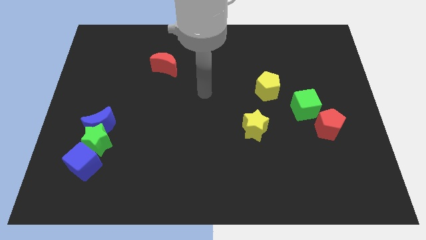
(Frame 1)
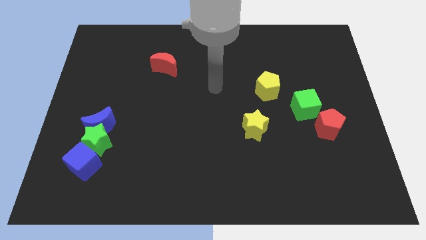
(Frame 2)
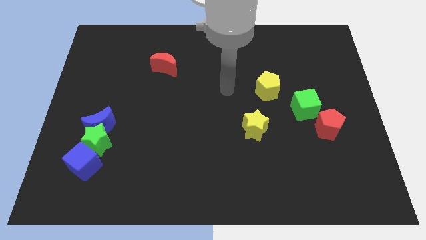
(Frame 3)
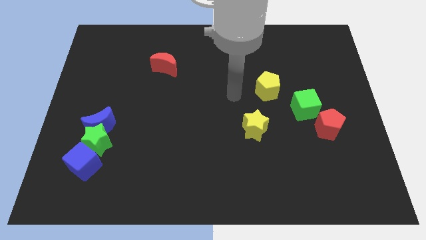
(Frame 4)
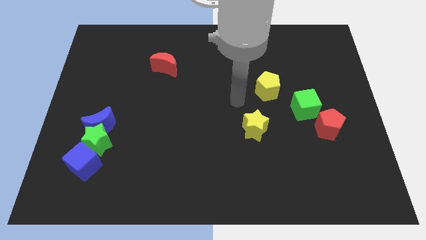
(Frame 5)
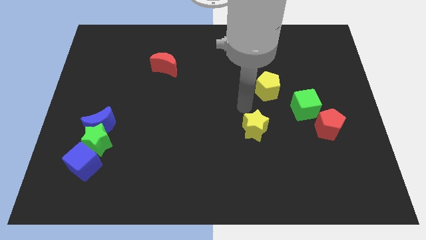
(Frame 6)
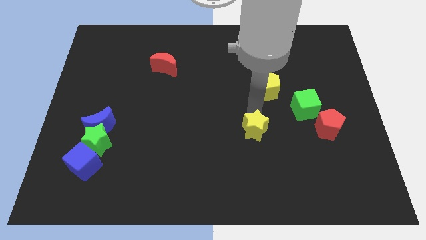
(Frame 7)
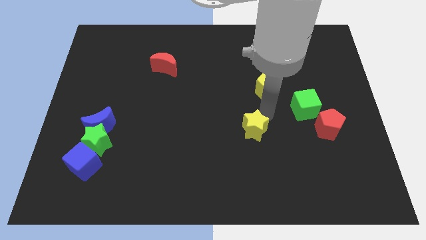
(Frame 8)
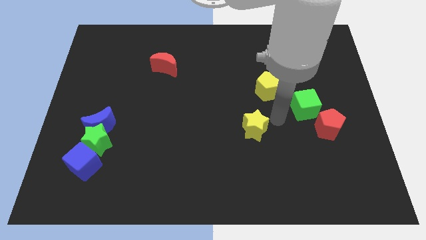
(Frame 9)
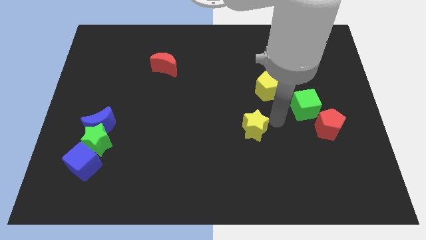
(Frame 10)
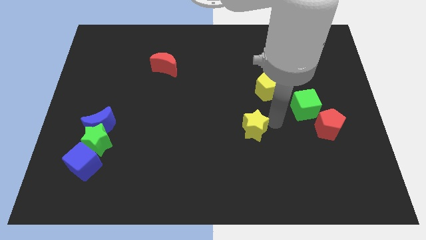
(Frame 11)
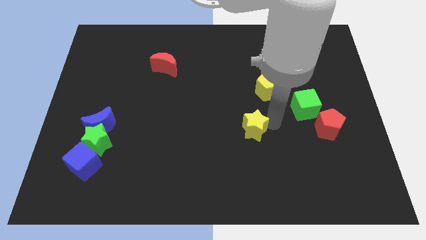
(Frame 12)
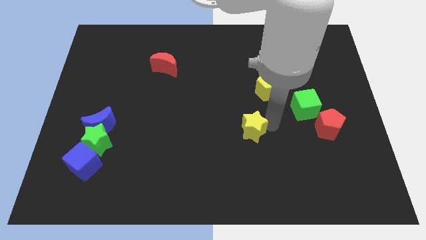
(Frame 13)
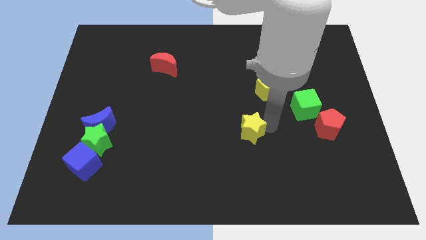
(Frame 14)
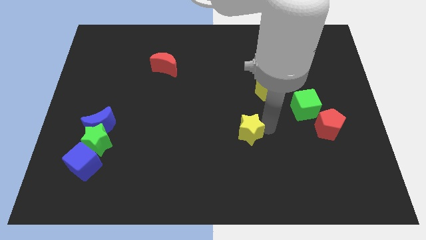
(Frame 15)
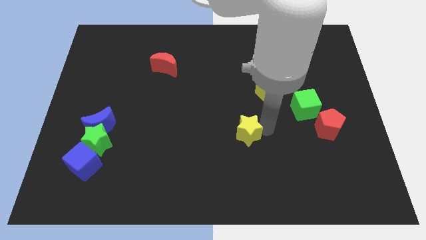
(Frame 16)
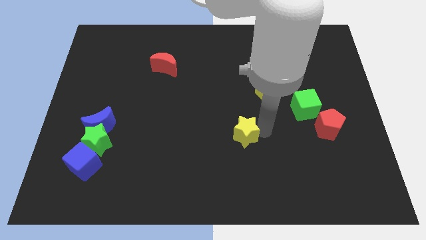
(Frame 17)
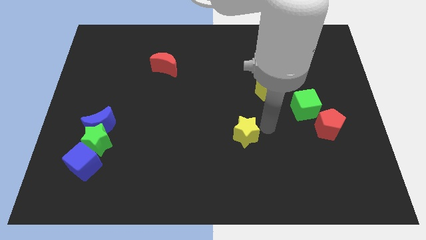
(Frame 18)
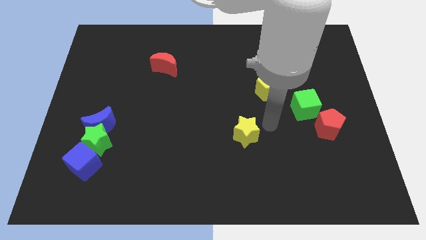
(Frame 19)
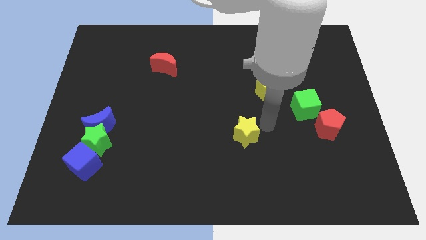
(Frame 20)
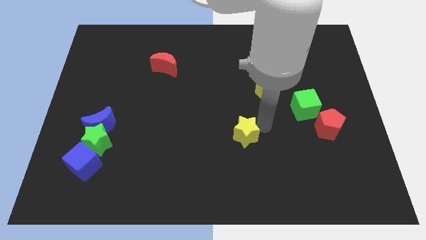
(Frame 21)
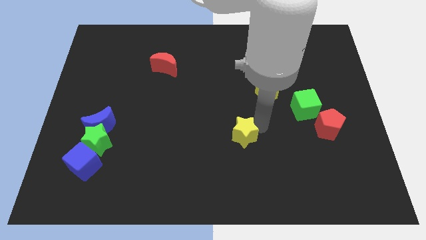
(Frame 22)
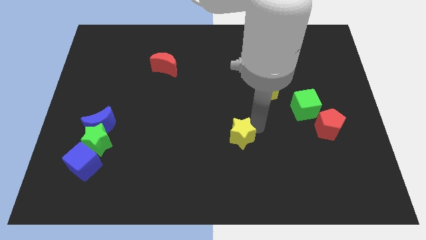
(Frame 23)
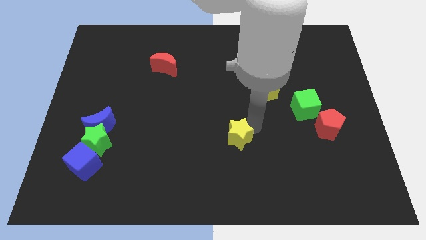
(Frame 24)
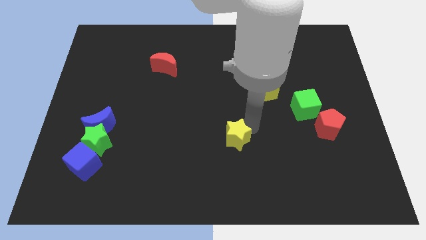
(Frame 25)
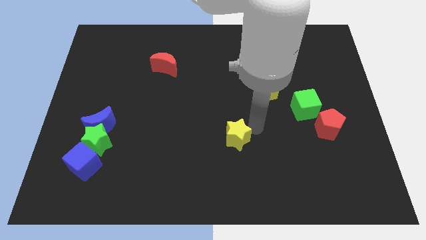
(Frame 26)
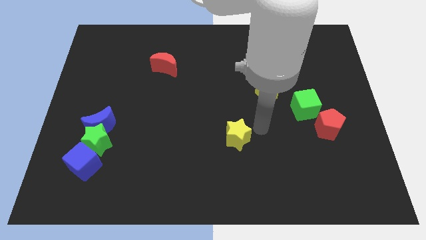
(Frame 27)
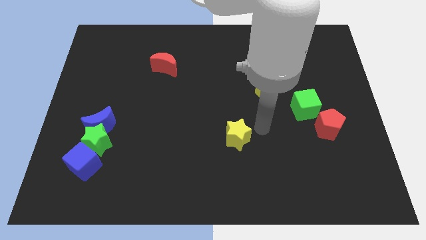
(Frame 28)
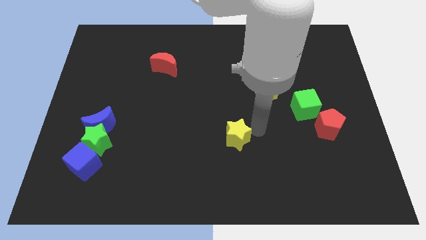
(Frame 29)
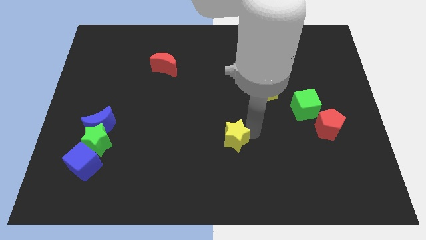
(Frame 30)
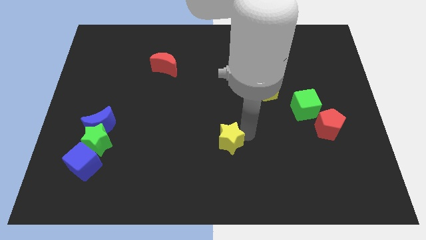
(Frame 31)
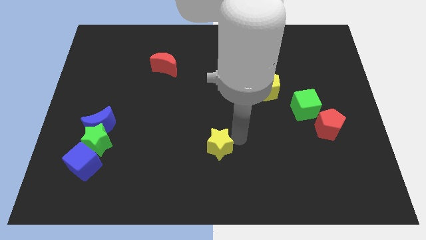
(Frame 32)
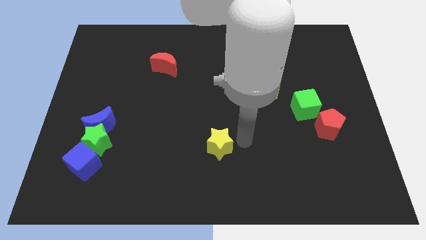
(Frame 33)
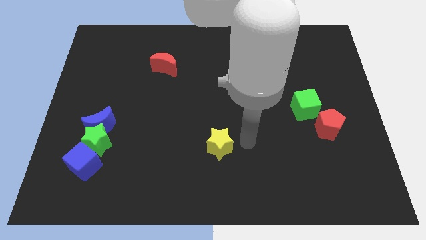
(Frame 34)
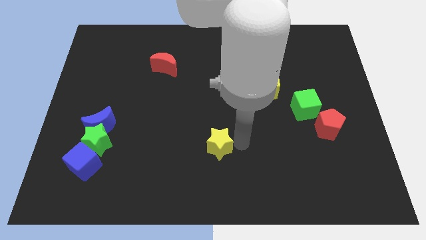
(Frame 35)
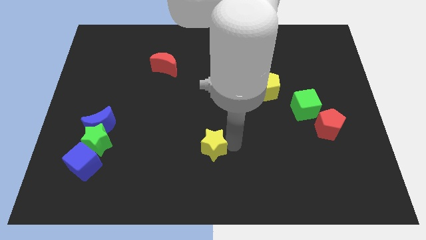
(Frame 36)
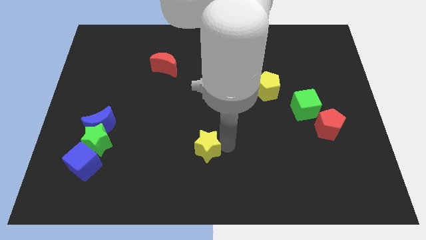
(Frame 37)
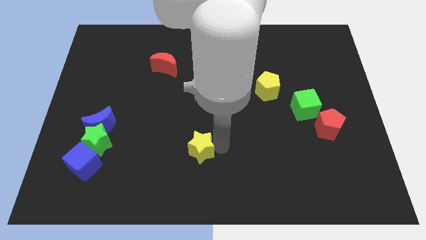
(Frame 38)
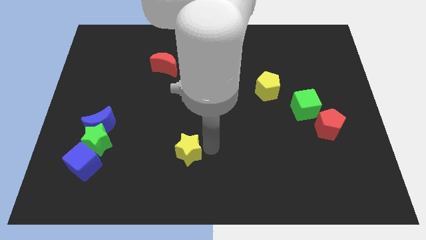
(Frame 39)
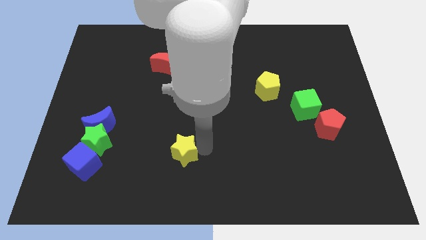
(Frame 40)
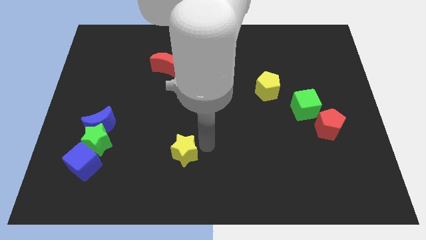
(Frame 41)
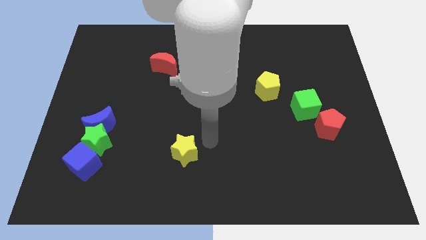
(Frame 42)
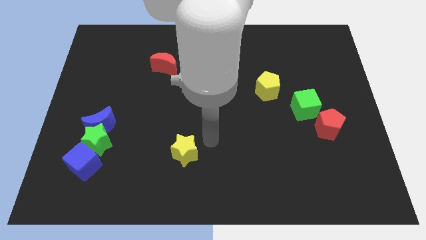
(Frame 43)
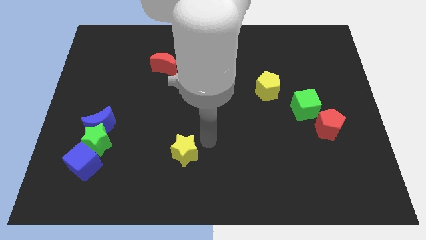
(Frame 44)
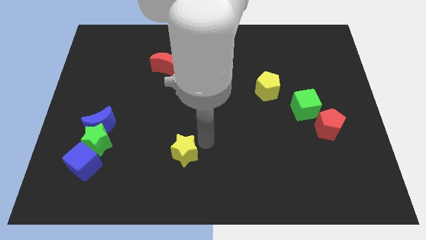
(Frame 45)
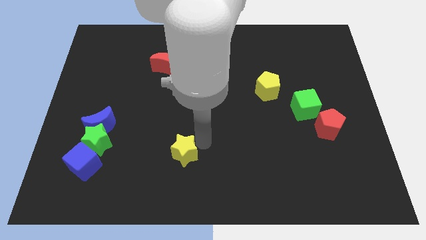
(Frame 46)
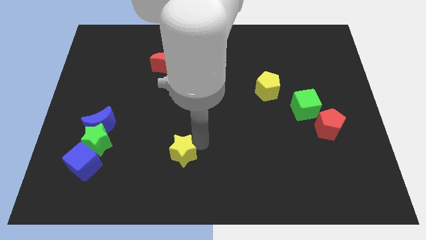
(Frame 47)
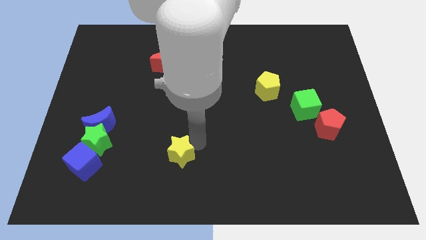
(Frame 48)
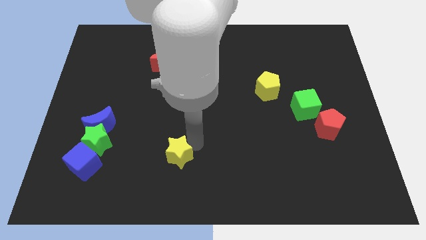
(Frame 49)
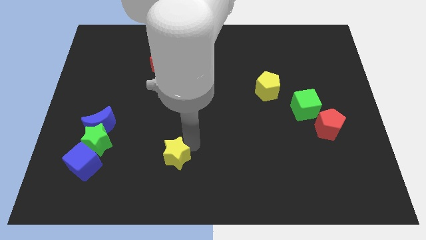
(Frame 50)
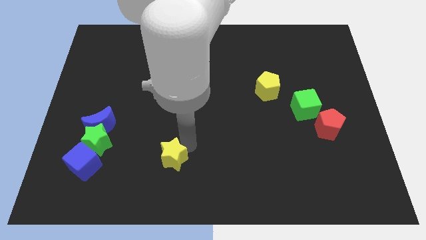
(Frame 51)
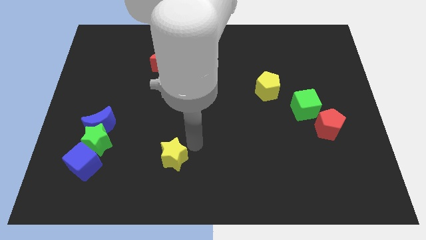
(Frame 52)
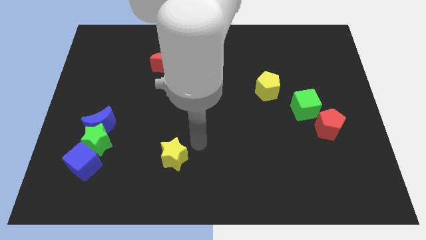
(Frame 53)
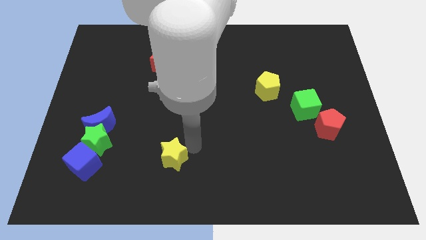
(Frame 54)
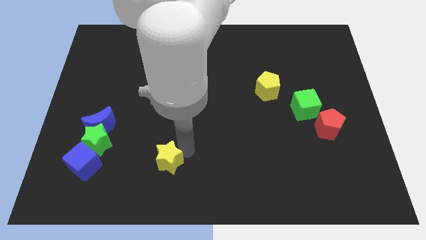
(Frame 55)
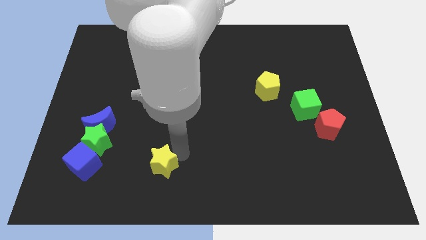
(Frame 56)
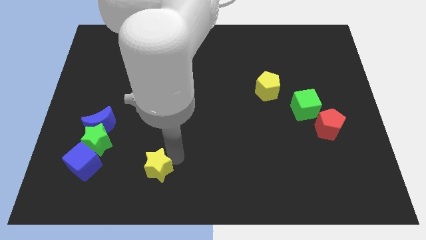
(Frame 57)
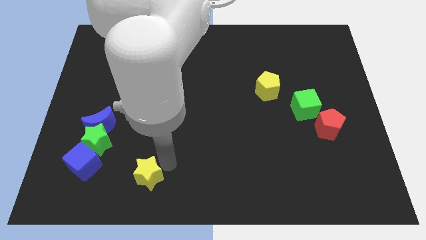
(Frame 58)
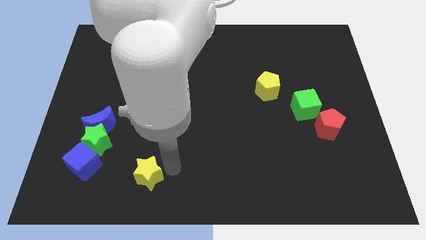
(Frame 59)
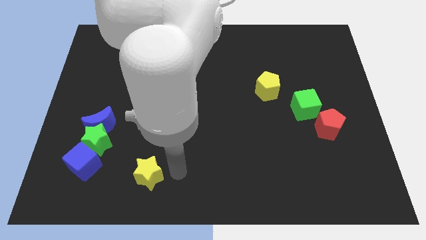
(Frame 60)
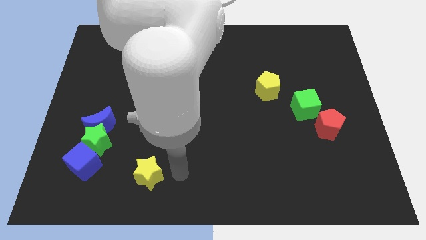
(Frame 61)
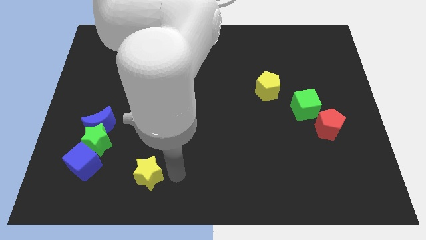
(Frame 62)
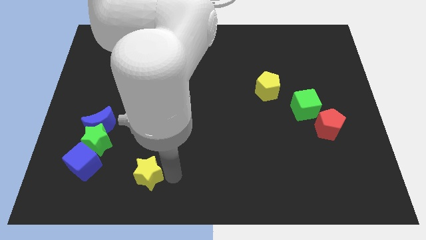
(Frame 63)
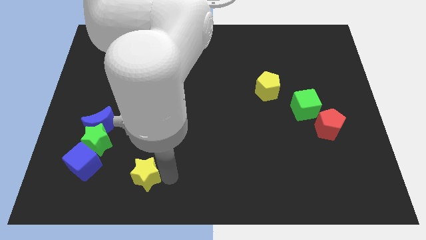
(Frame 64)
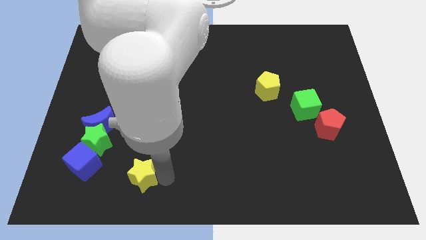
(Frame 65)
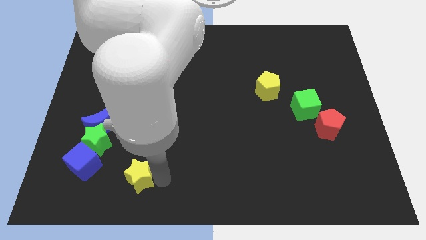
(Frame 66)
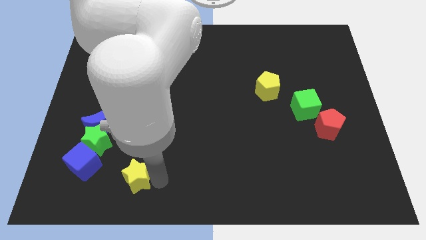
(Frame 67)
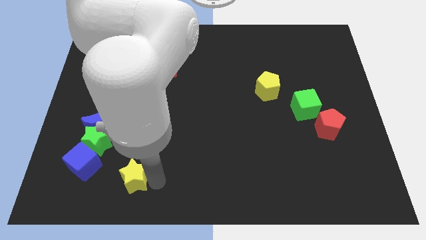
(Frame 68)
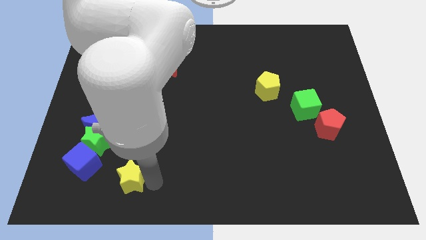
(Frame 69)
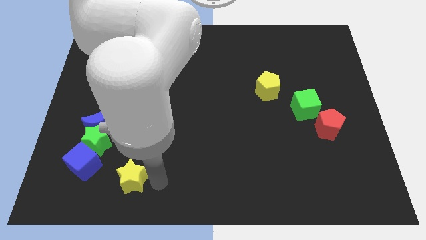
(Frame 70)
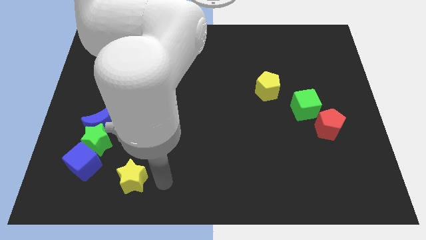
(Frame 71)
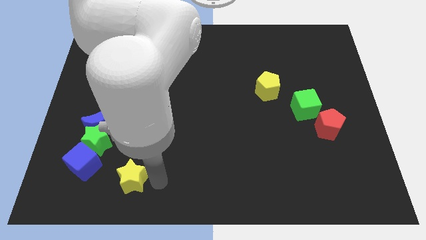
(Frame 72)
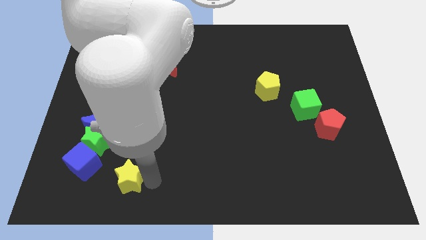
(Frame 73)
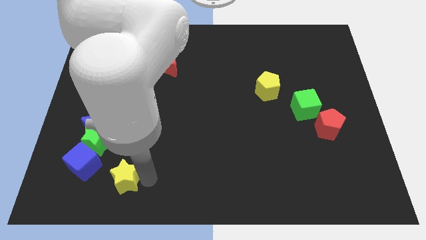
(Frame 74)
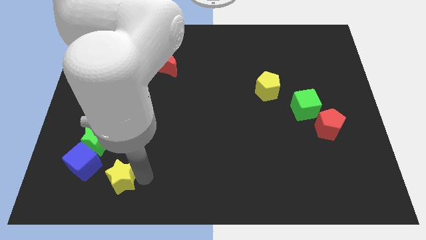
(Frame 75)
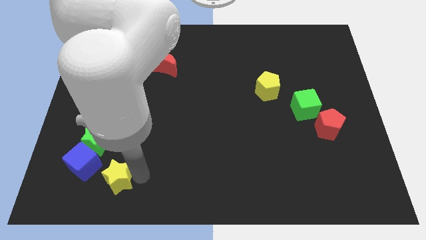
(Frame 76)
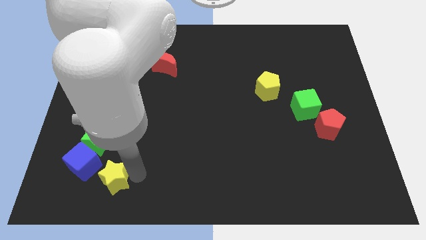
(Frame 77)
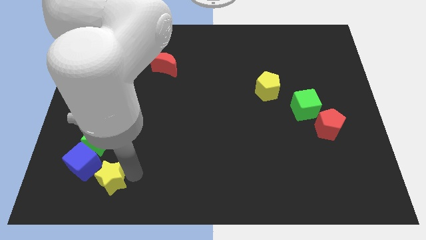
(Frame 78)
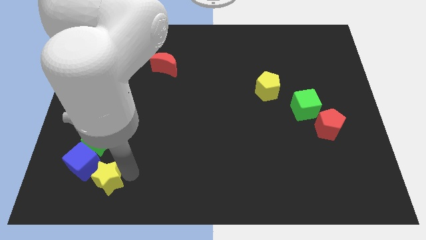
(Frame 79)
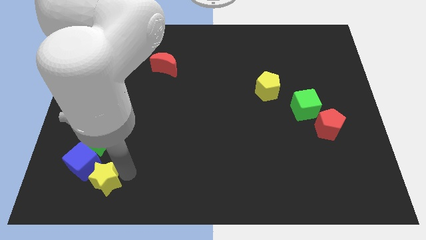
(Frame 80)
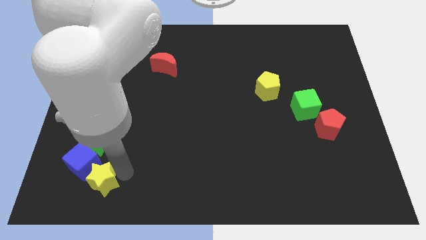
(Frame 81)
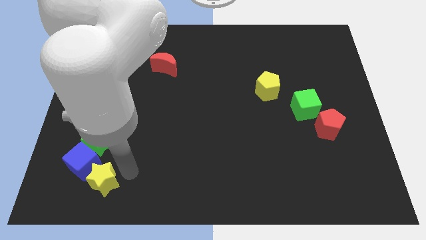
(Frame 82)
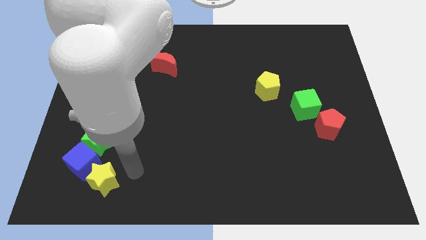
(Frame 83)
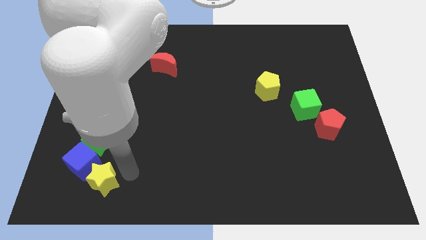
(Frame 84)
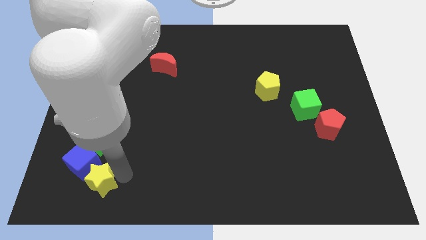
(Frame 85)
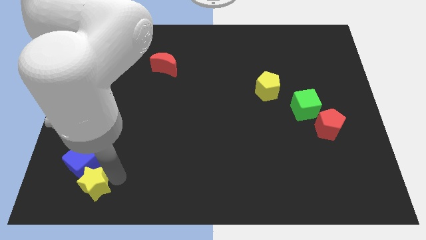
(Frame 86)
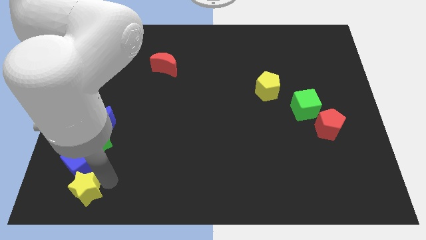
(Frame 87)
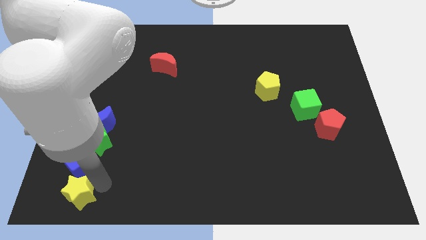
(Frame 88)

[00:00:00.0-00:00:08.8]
push the yellow star to the bottom left corner
